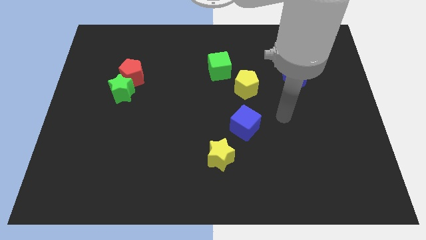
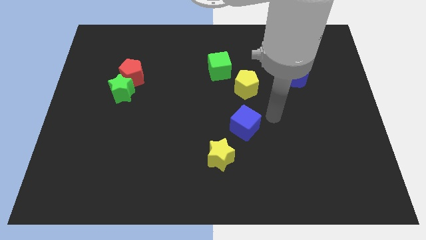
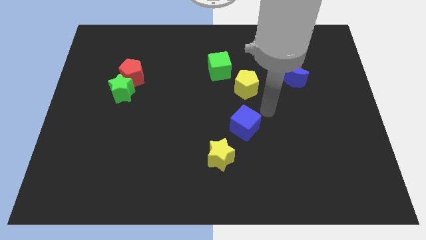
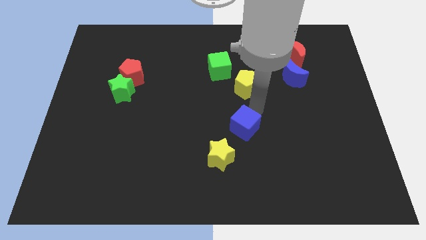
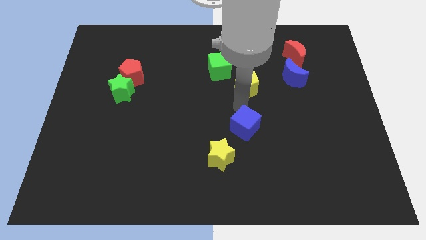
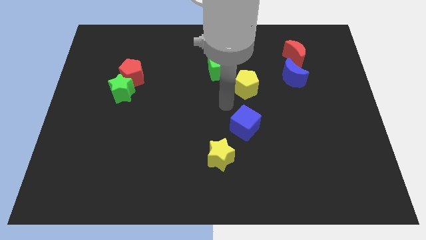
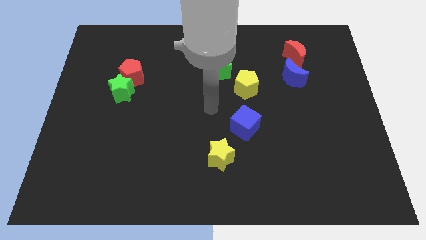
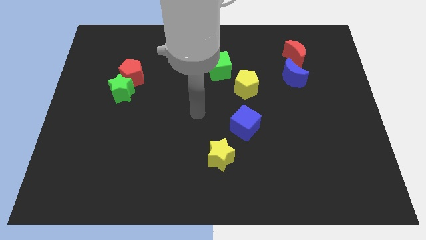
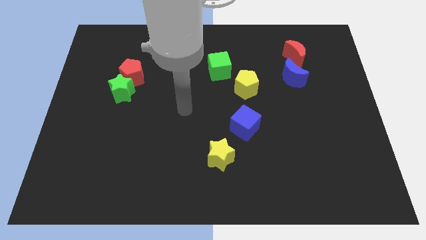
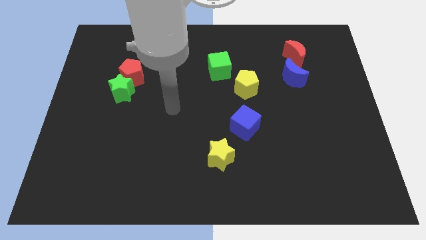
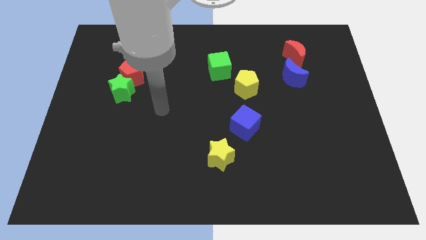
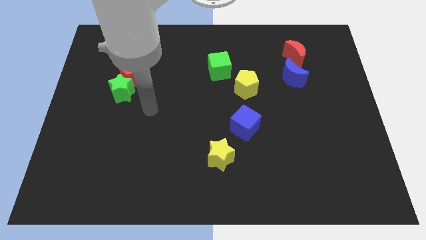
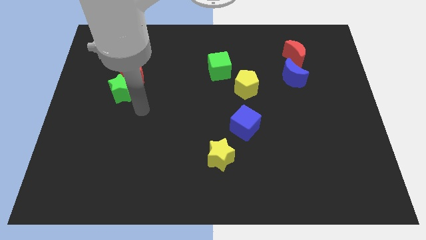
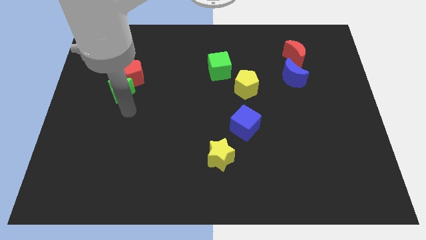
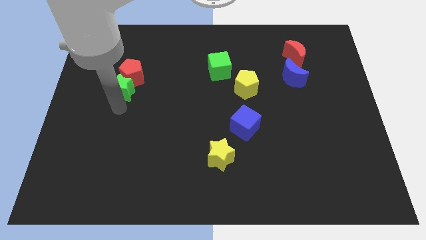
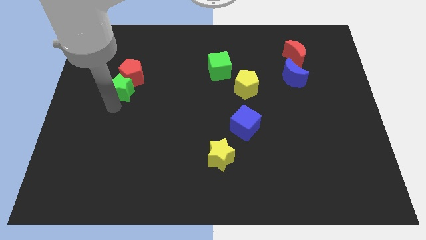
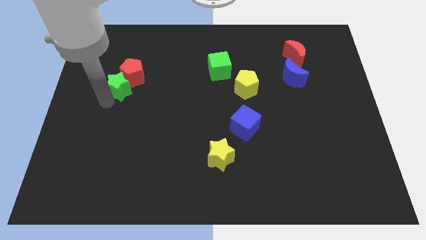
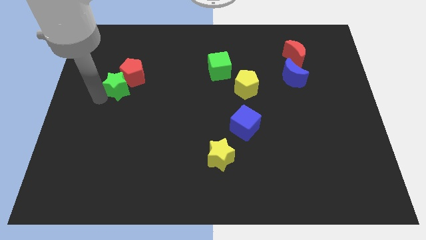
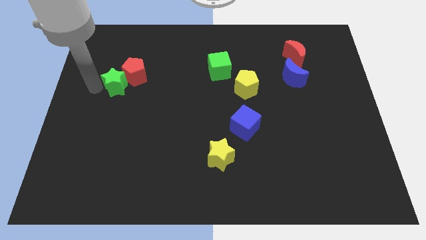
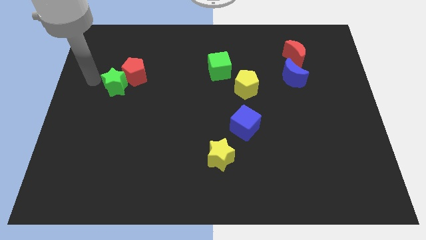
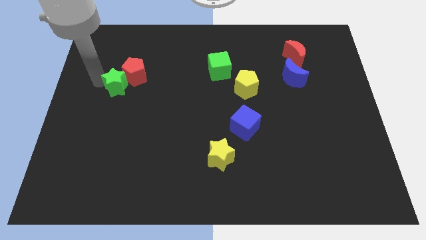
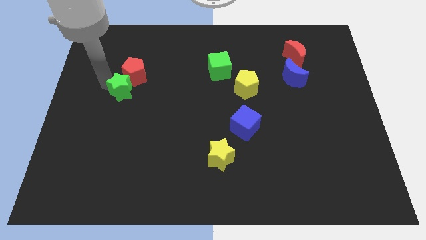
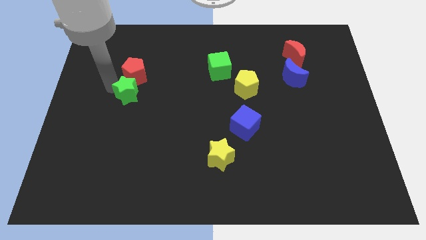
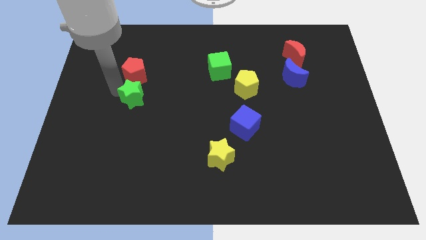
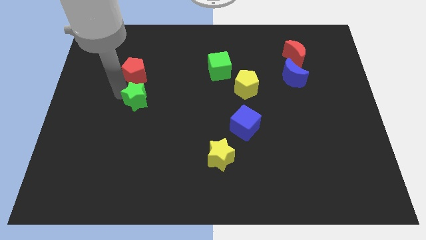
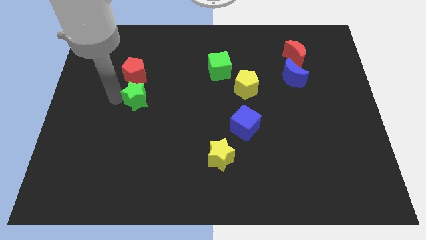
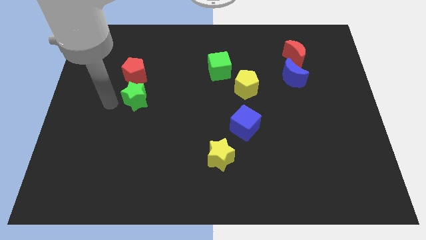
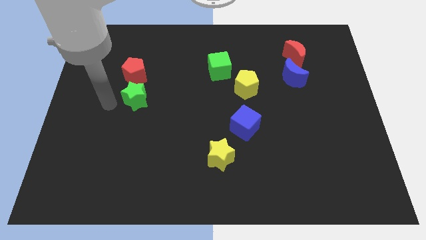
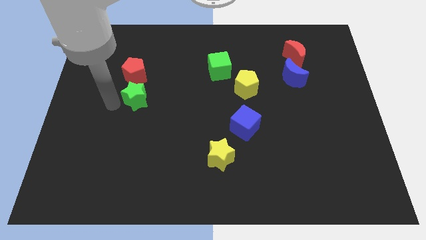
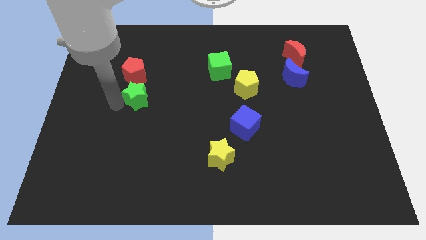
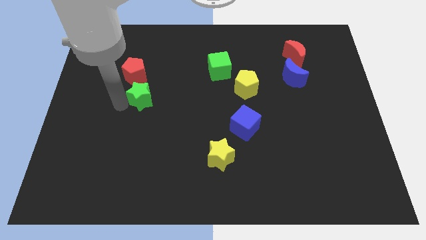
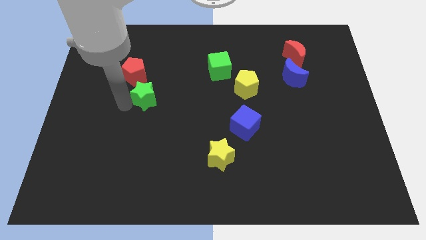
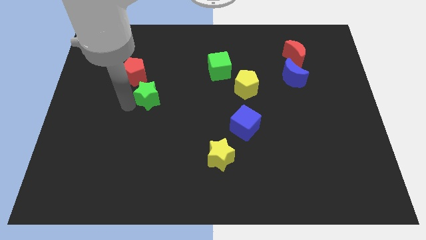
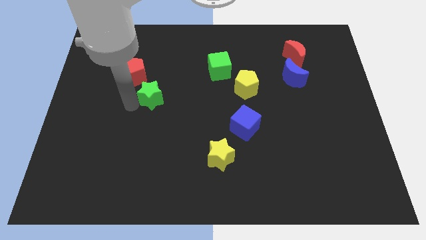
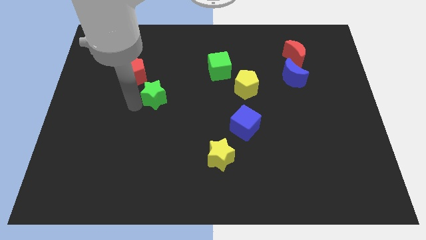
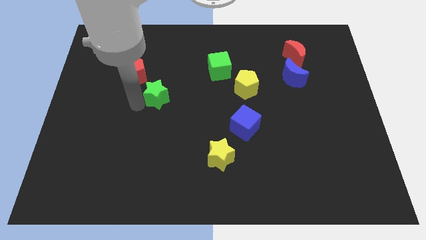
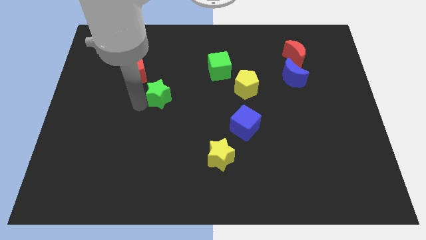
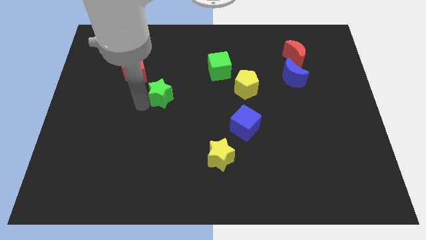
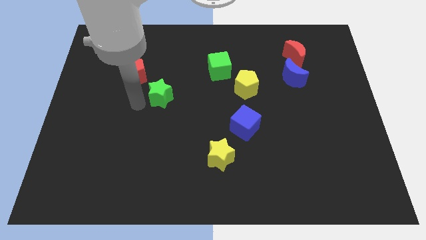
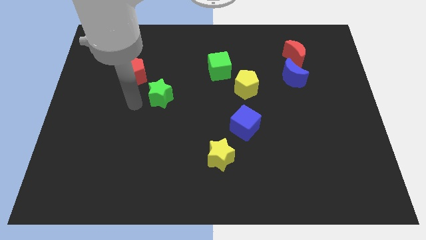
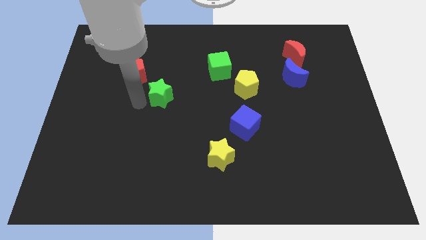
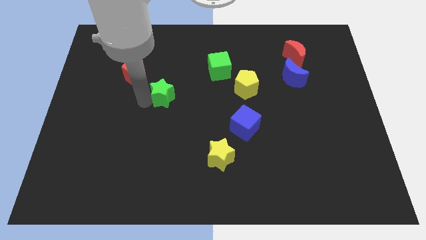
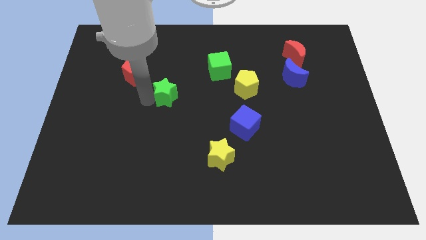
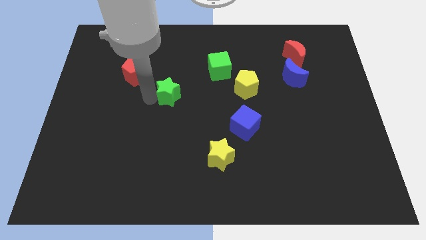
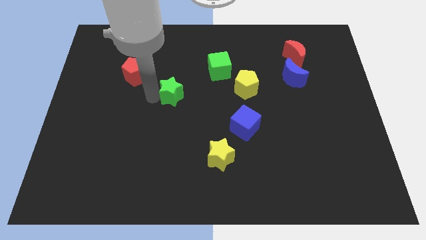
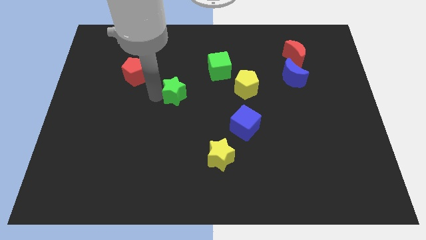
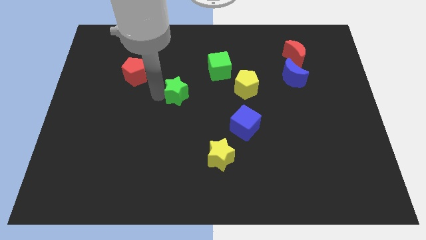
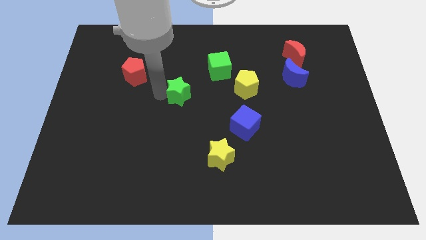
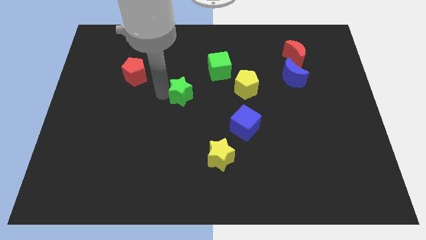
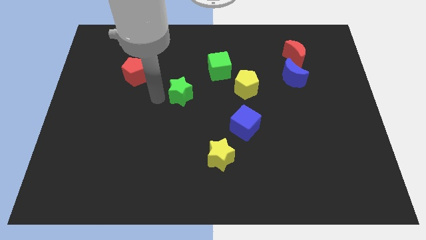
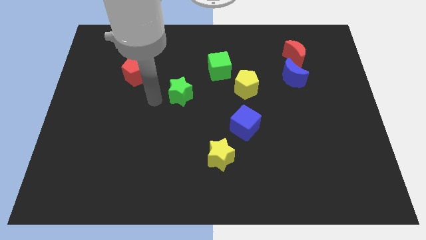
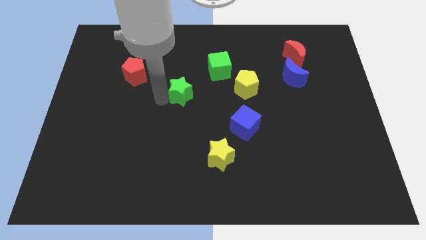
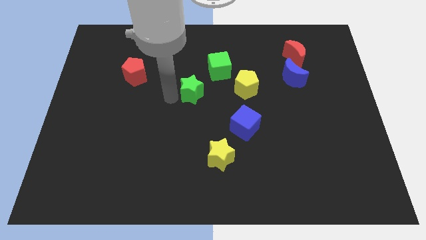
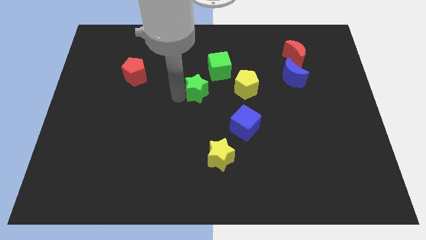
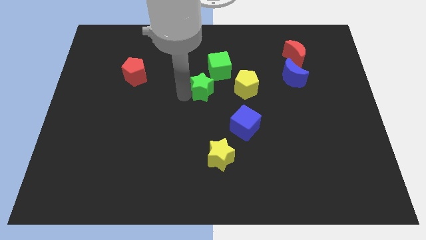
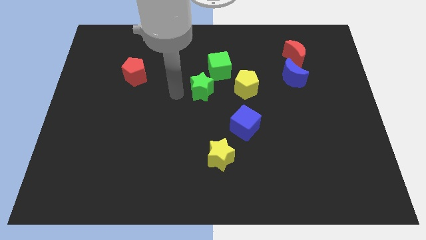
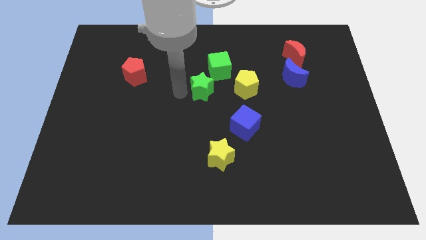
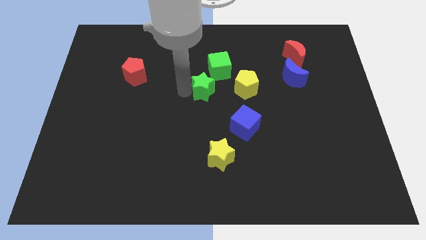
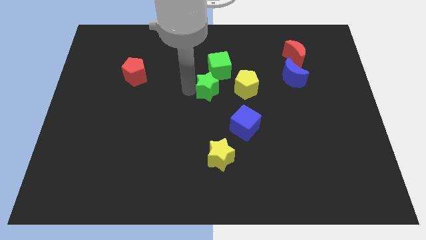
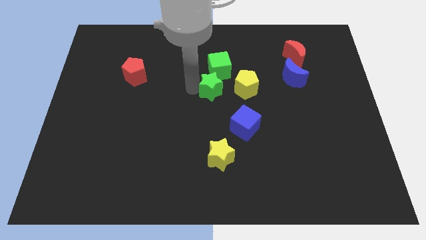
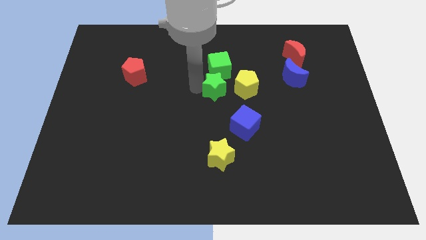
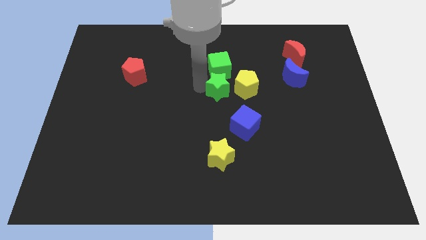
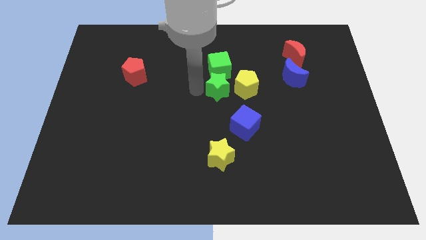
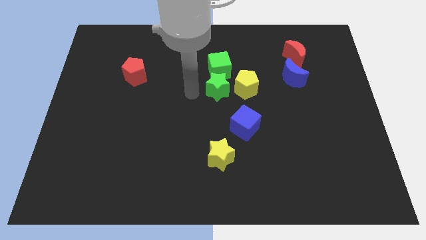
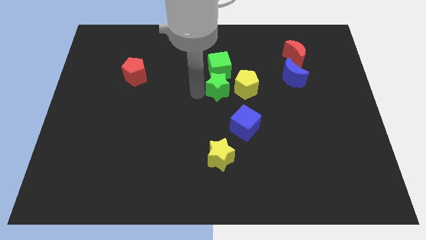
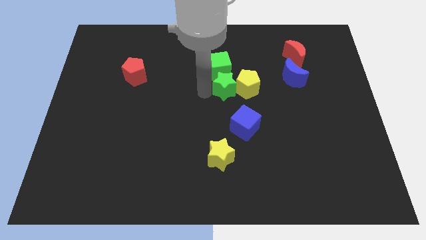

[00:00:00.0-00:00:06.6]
move the green star close to the yellow pentagon
